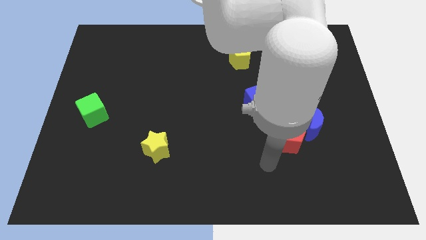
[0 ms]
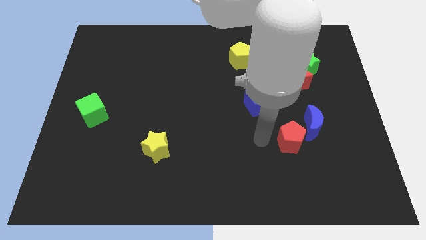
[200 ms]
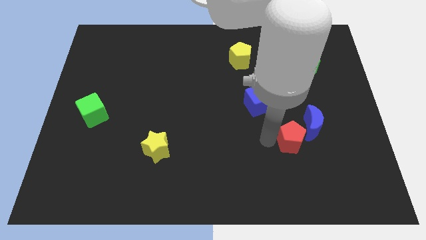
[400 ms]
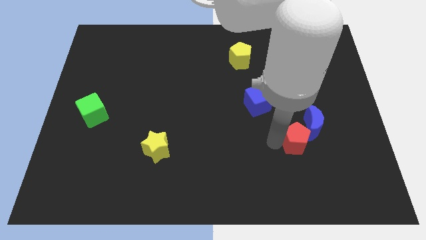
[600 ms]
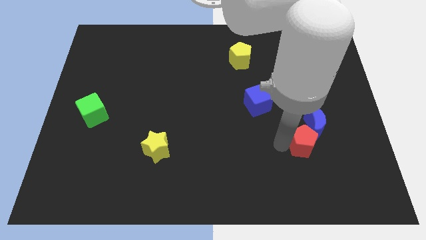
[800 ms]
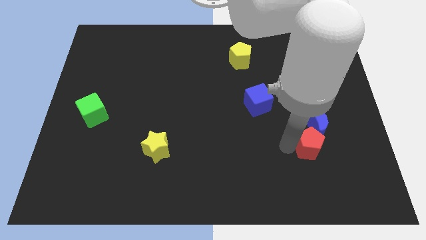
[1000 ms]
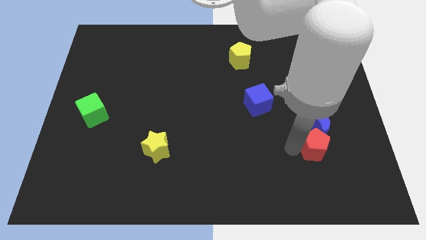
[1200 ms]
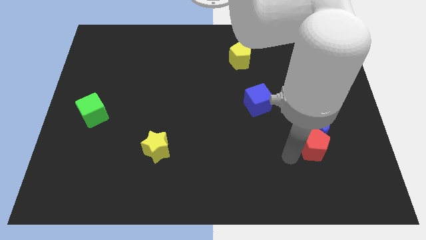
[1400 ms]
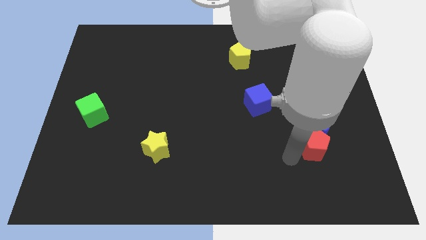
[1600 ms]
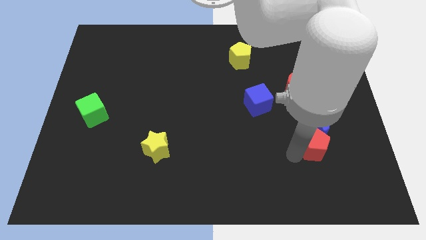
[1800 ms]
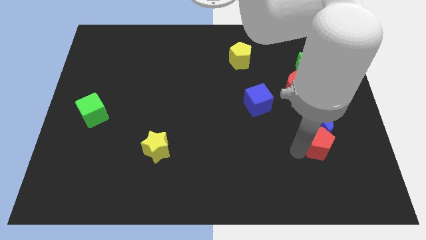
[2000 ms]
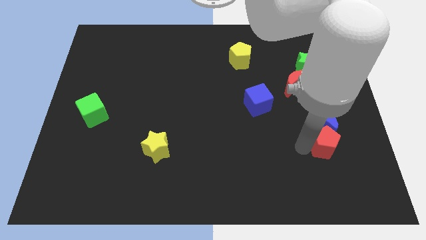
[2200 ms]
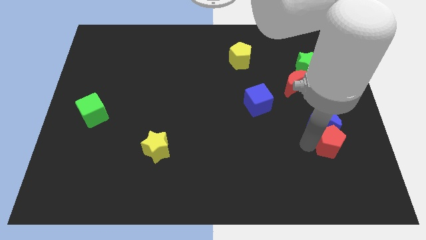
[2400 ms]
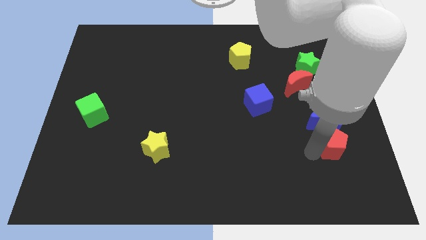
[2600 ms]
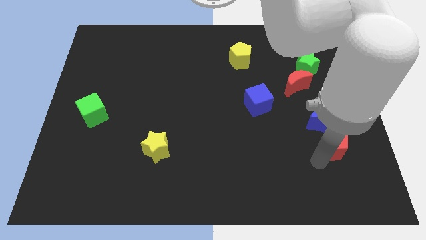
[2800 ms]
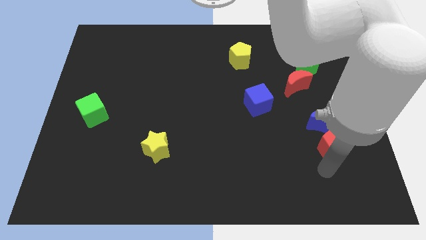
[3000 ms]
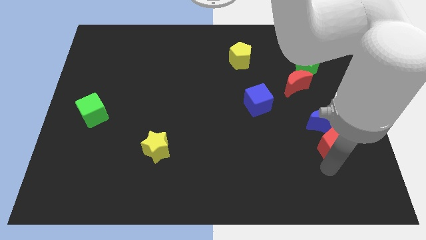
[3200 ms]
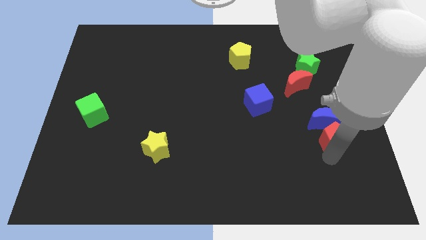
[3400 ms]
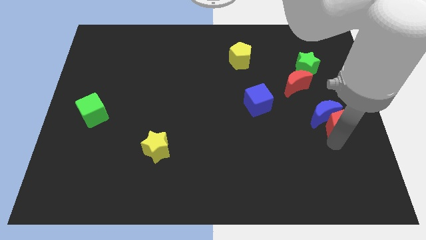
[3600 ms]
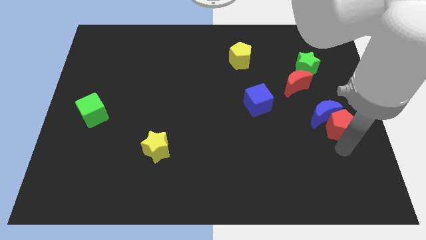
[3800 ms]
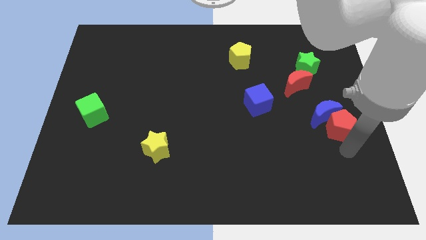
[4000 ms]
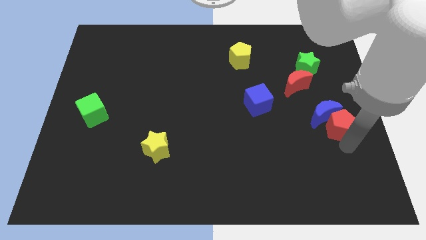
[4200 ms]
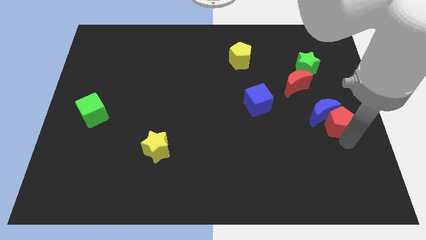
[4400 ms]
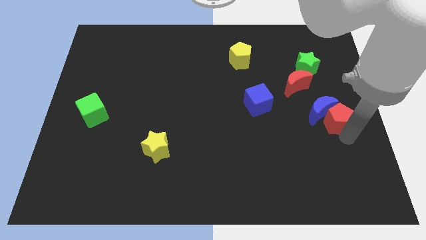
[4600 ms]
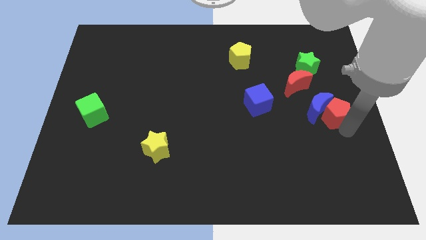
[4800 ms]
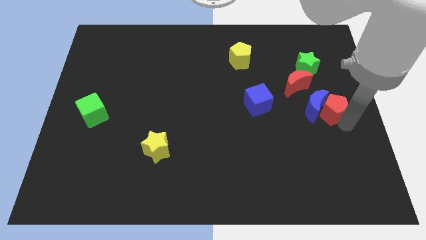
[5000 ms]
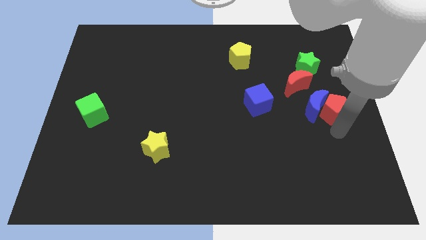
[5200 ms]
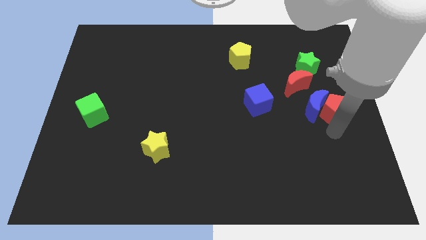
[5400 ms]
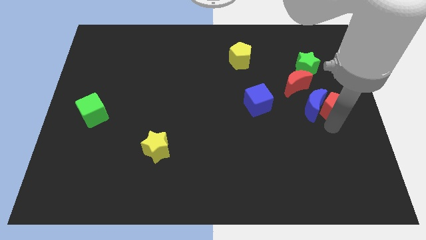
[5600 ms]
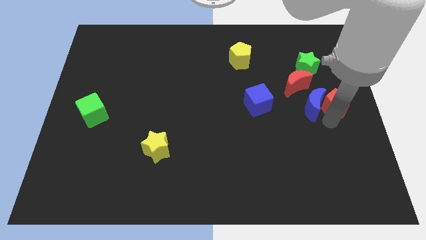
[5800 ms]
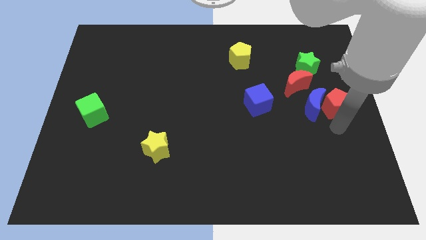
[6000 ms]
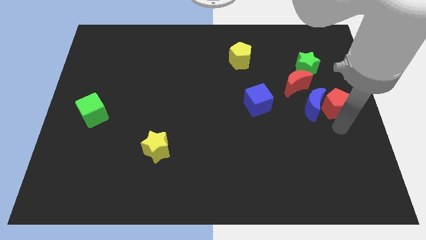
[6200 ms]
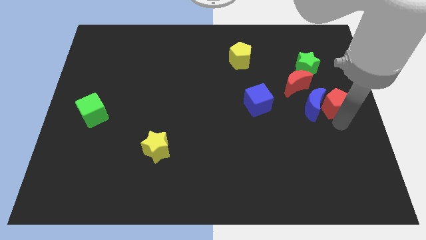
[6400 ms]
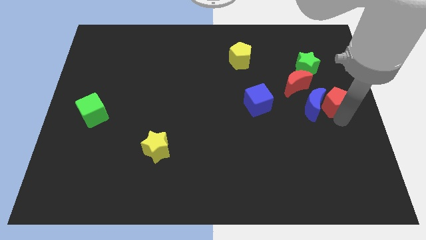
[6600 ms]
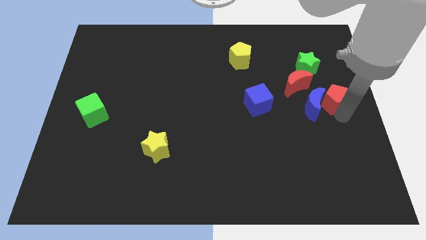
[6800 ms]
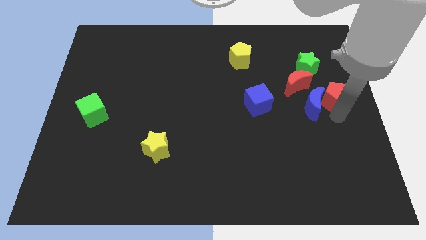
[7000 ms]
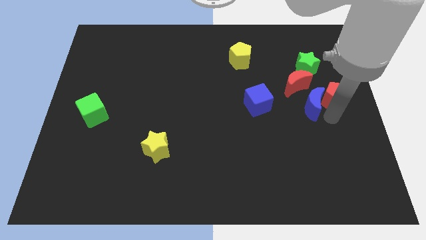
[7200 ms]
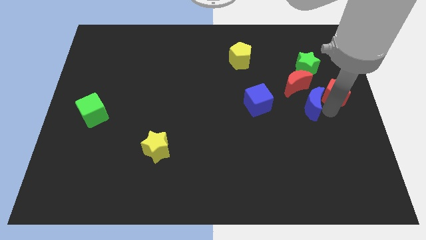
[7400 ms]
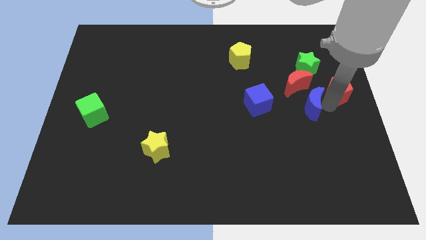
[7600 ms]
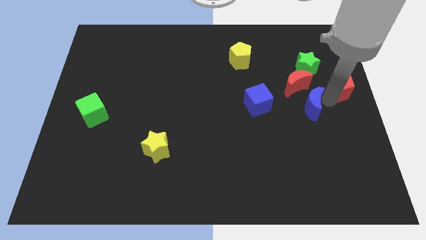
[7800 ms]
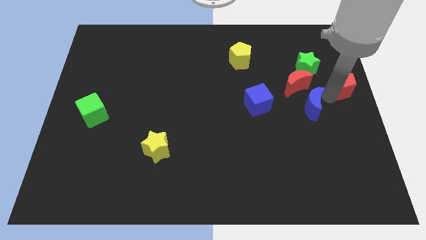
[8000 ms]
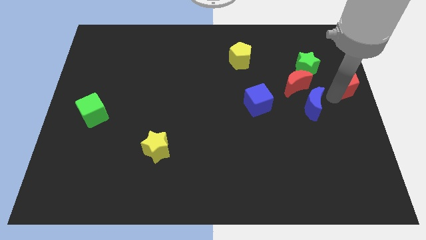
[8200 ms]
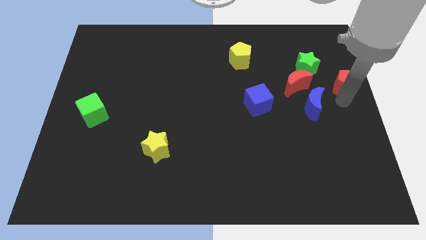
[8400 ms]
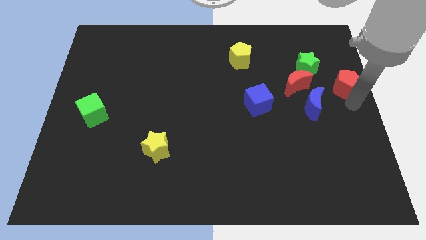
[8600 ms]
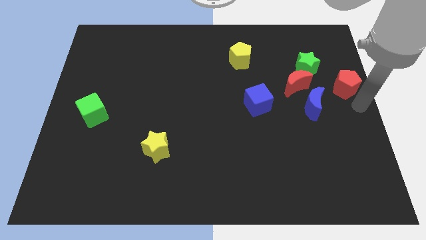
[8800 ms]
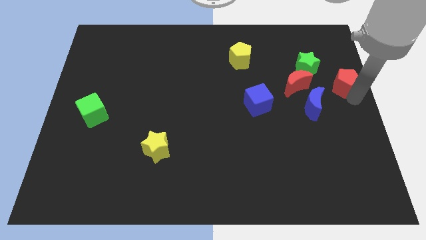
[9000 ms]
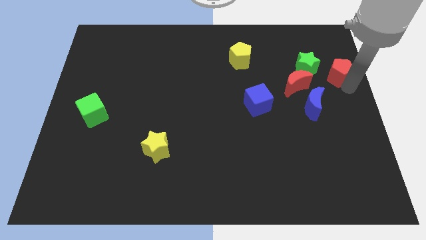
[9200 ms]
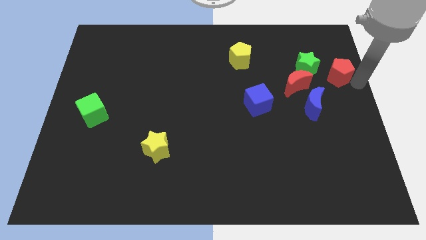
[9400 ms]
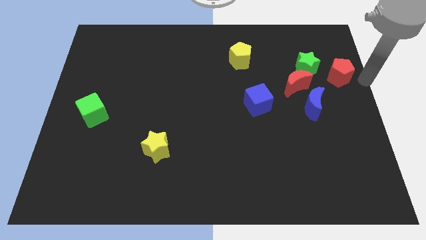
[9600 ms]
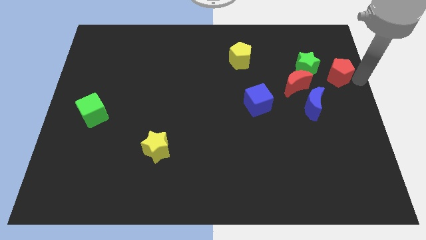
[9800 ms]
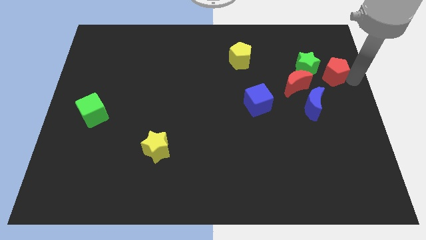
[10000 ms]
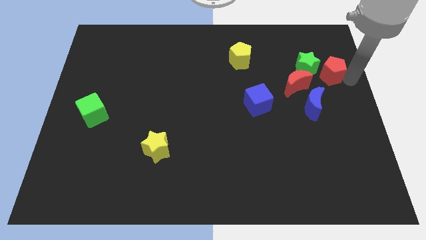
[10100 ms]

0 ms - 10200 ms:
move the red pentagon diagonally up and to the right of the red moon

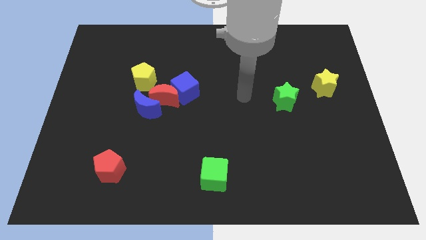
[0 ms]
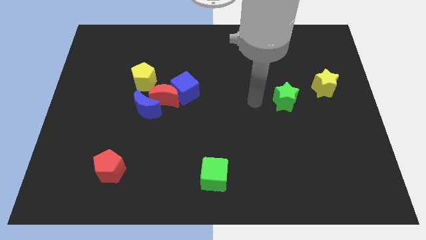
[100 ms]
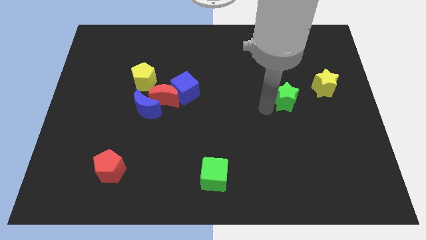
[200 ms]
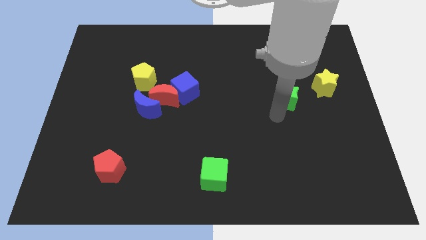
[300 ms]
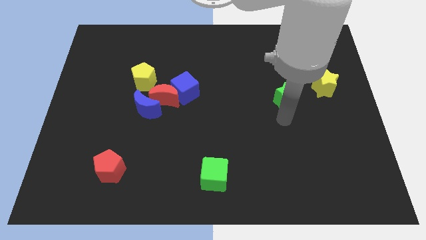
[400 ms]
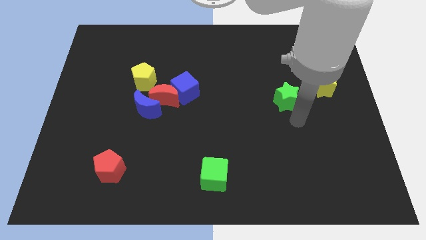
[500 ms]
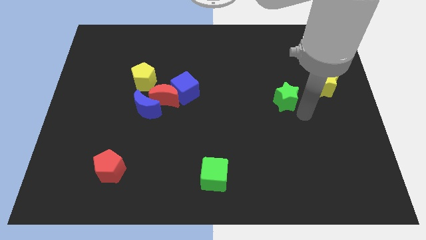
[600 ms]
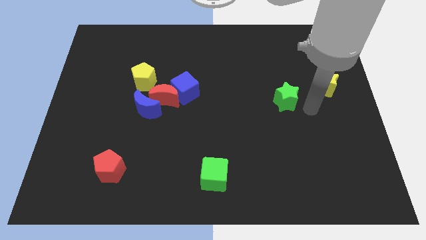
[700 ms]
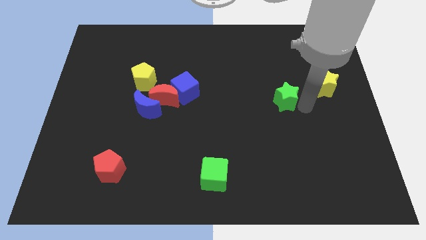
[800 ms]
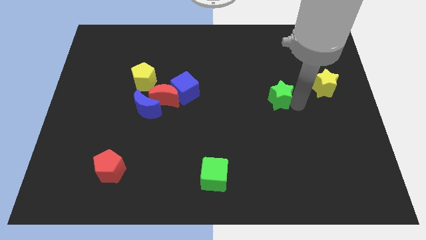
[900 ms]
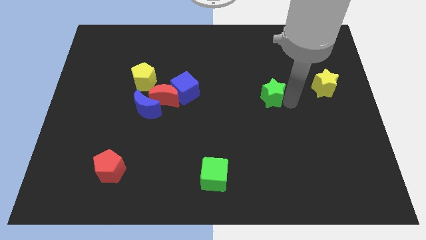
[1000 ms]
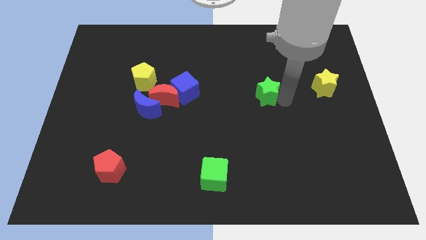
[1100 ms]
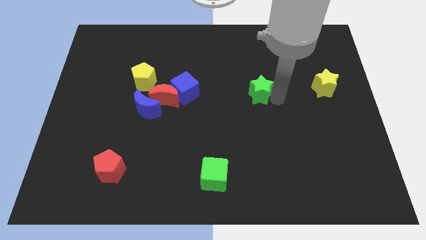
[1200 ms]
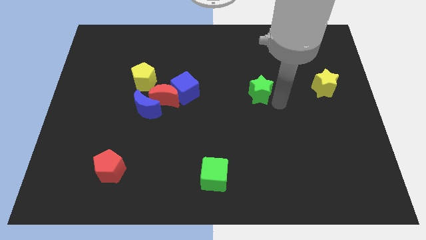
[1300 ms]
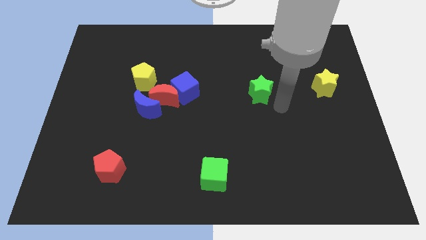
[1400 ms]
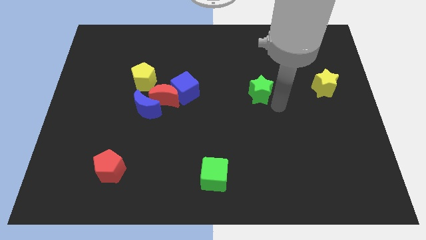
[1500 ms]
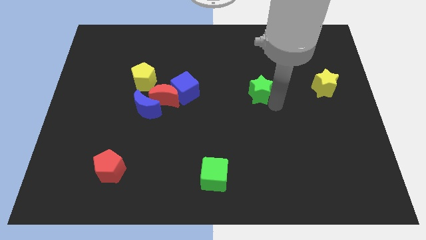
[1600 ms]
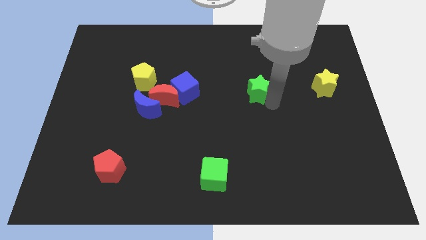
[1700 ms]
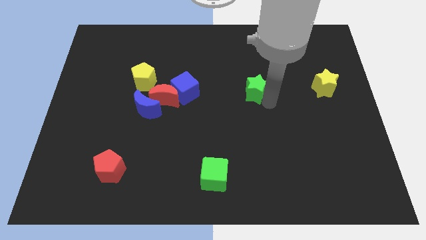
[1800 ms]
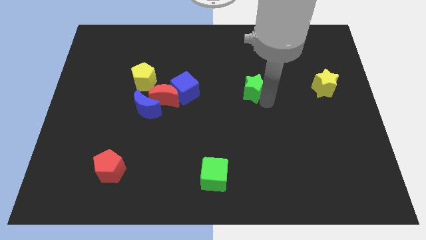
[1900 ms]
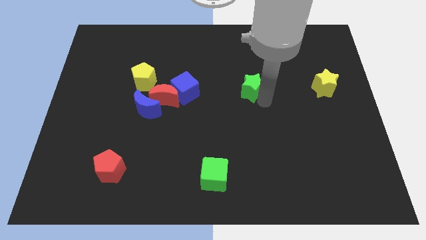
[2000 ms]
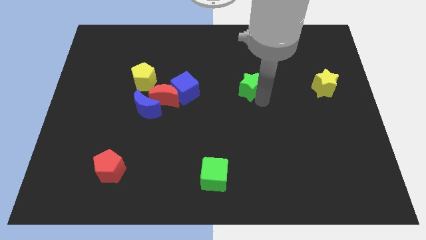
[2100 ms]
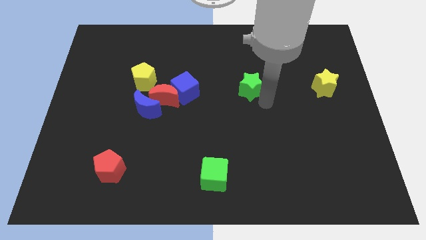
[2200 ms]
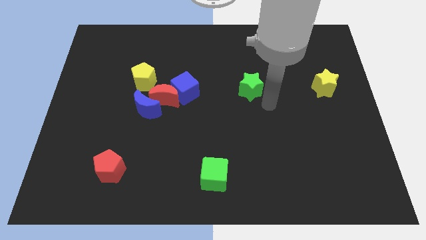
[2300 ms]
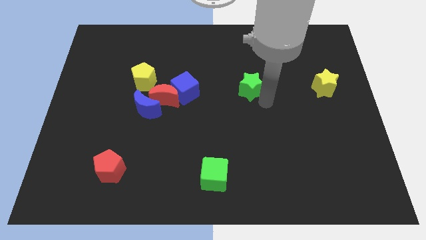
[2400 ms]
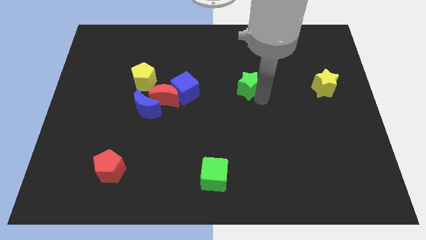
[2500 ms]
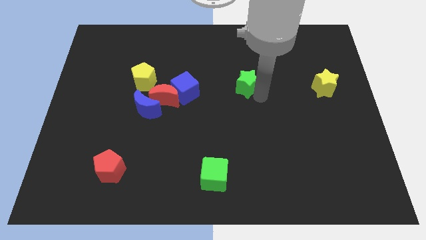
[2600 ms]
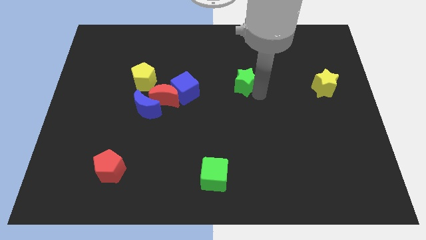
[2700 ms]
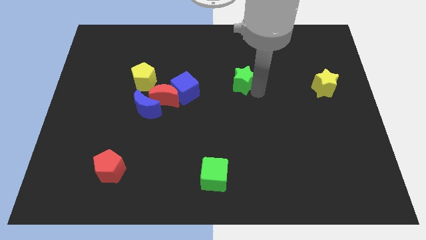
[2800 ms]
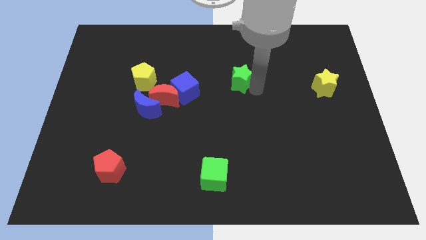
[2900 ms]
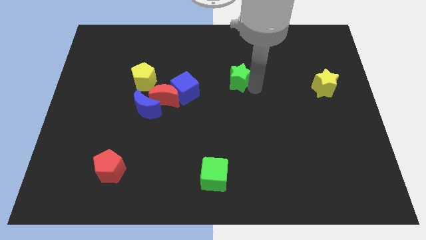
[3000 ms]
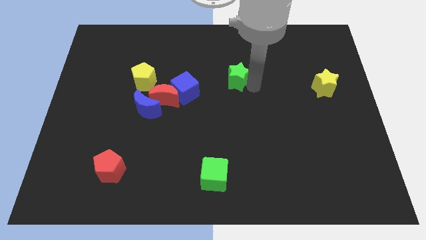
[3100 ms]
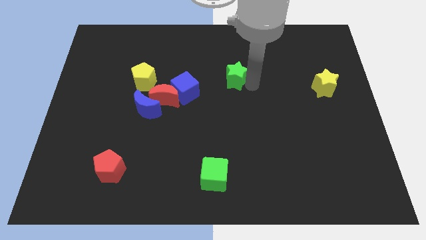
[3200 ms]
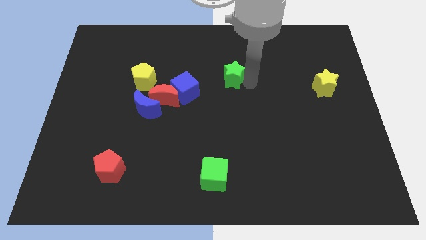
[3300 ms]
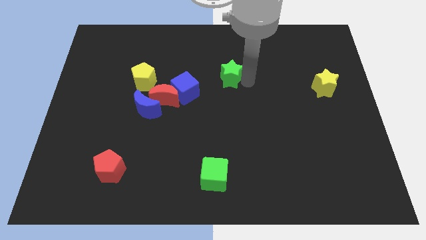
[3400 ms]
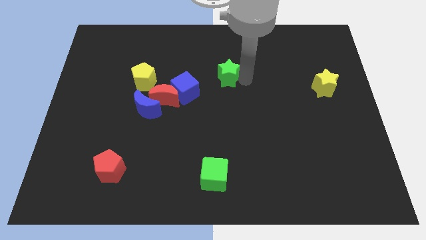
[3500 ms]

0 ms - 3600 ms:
slide the green star diagonally up and to the right of the blue cube
